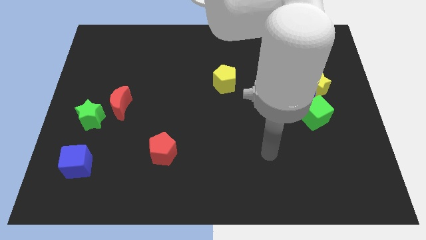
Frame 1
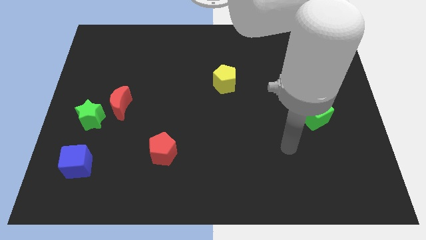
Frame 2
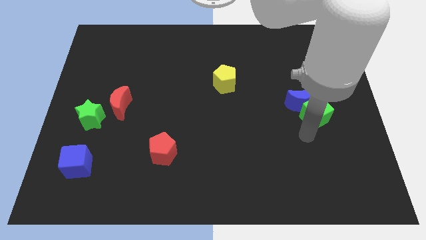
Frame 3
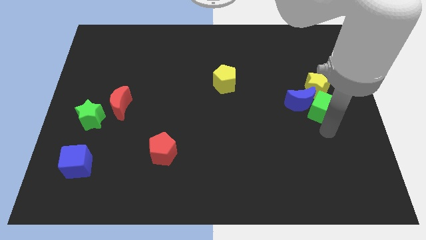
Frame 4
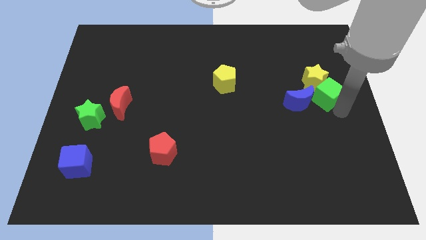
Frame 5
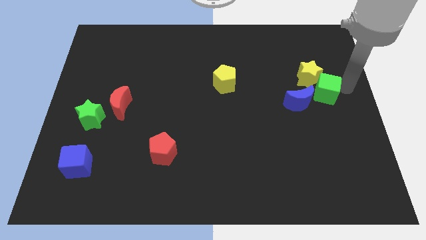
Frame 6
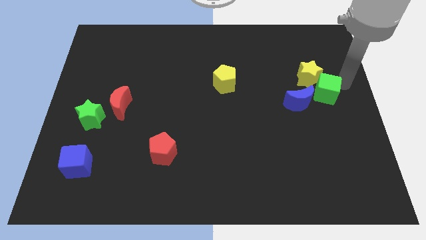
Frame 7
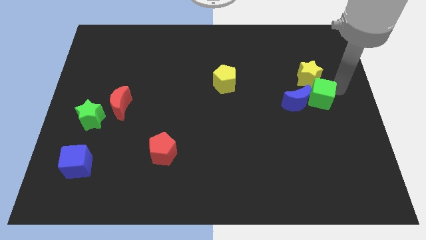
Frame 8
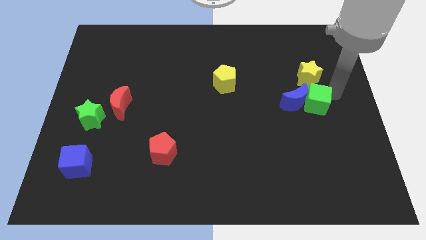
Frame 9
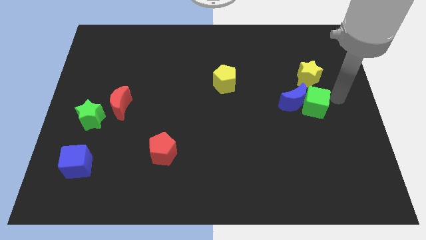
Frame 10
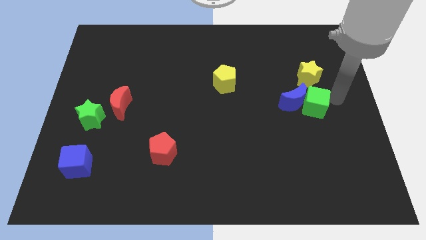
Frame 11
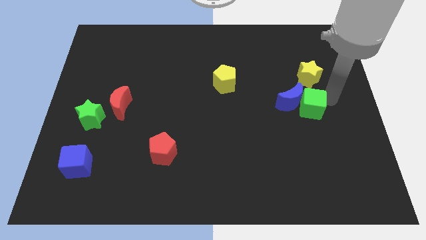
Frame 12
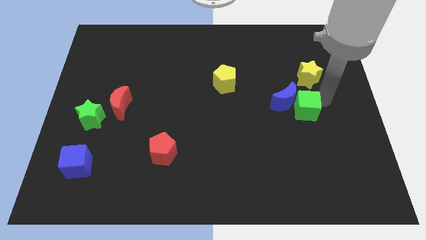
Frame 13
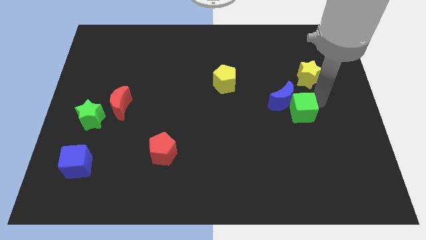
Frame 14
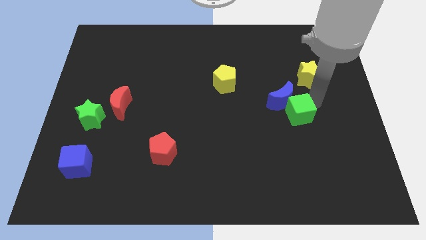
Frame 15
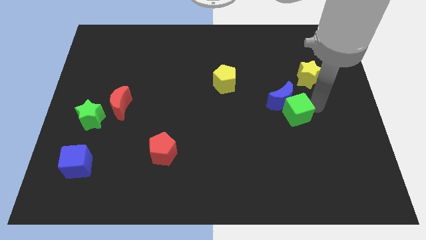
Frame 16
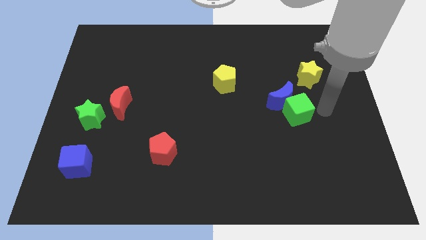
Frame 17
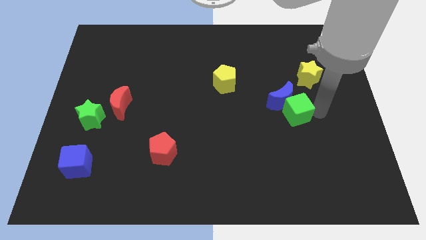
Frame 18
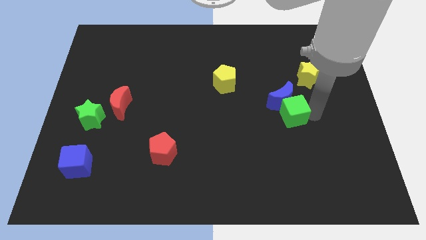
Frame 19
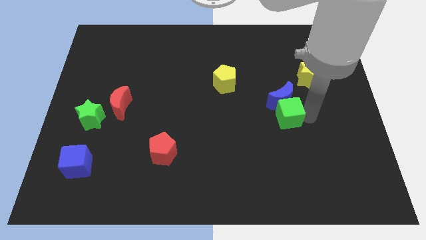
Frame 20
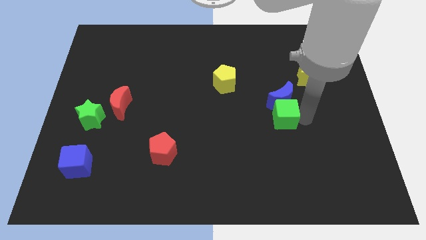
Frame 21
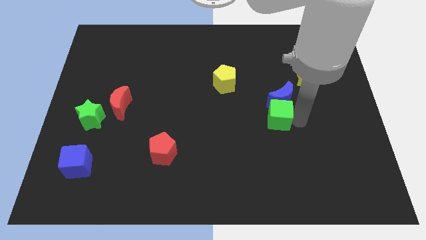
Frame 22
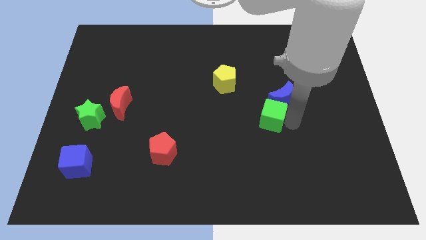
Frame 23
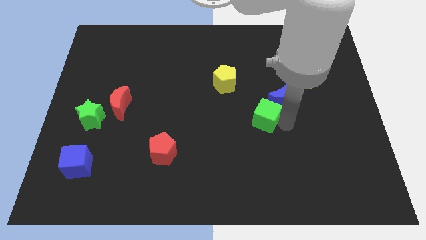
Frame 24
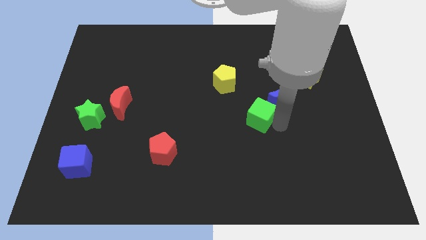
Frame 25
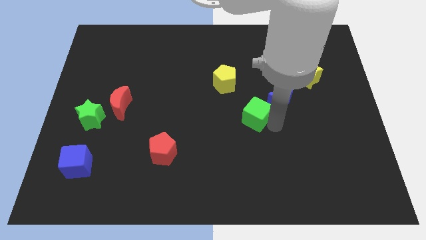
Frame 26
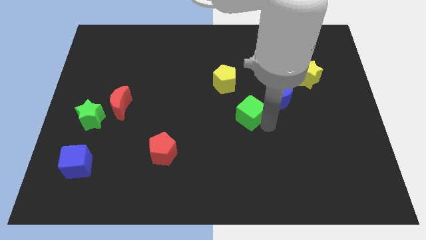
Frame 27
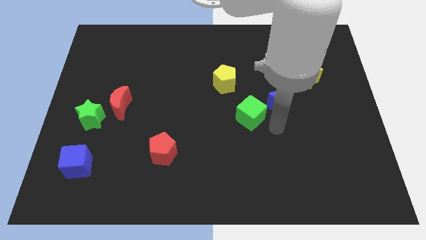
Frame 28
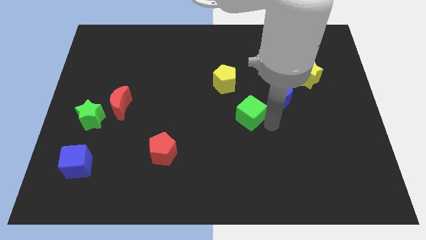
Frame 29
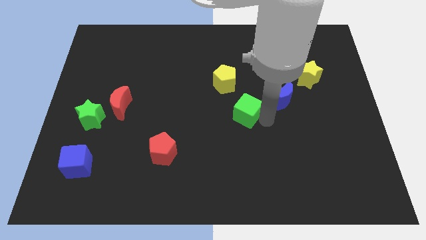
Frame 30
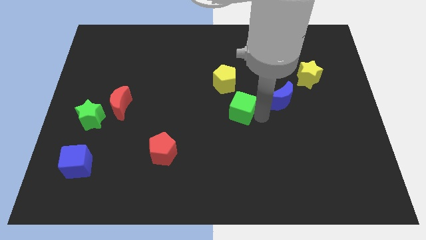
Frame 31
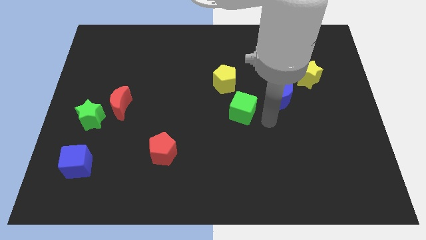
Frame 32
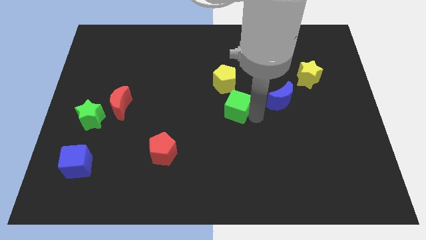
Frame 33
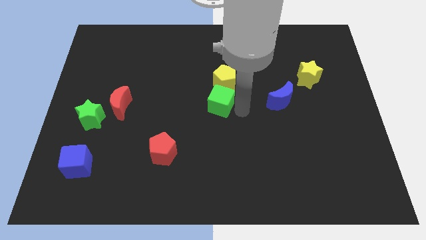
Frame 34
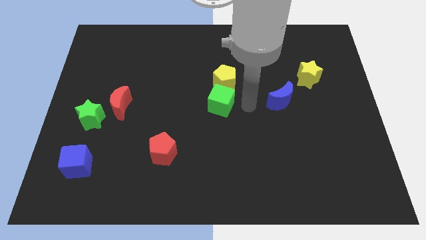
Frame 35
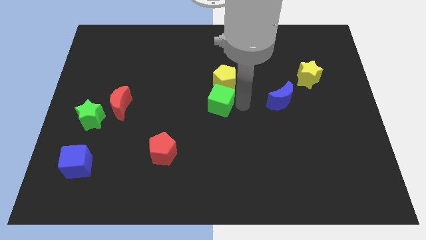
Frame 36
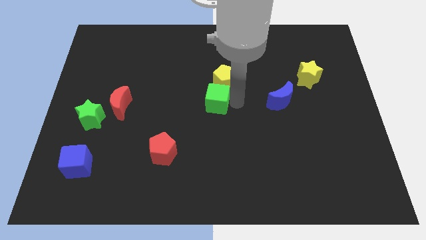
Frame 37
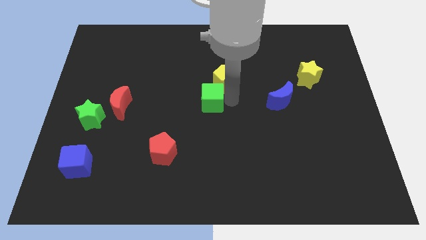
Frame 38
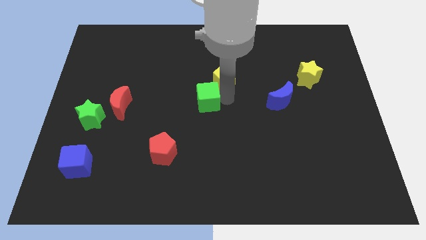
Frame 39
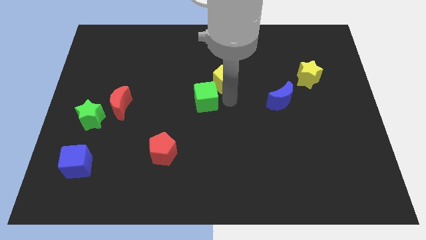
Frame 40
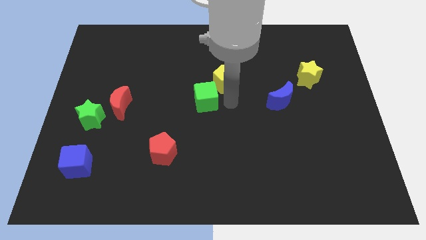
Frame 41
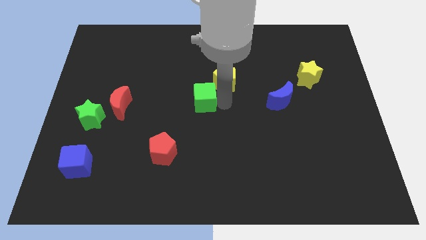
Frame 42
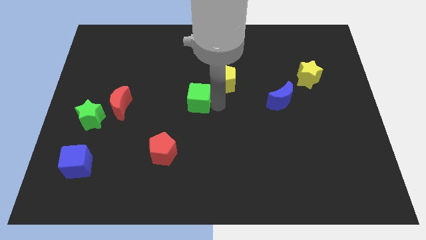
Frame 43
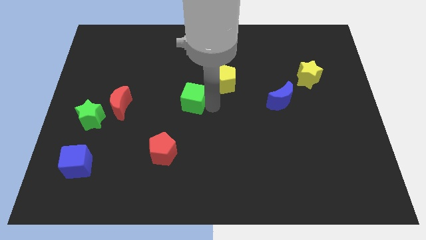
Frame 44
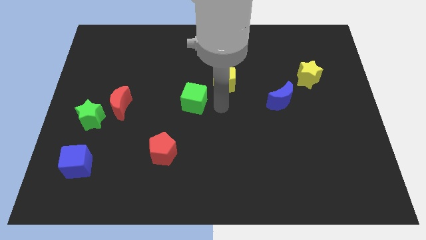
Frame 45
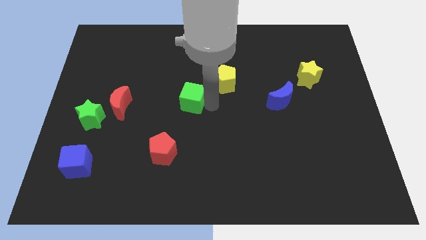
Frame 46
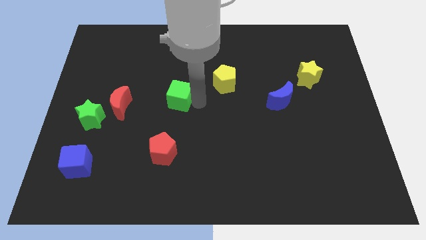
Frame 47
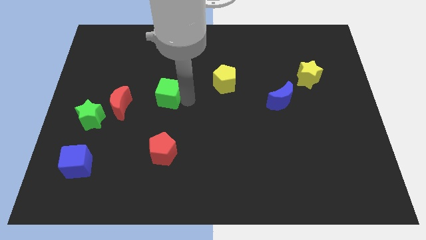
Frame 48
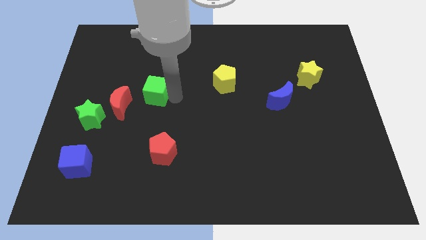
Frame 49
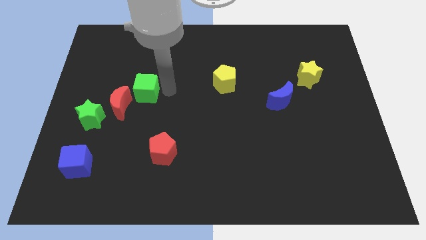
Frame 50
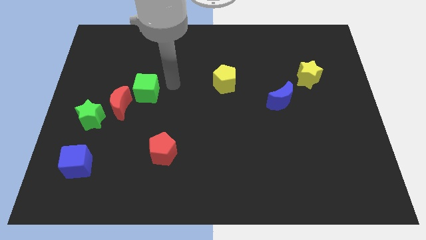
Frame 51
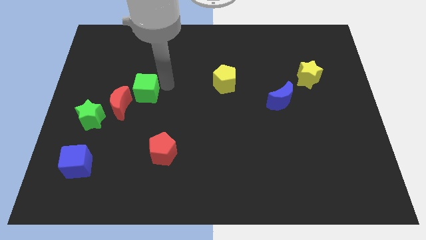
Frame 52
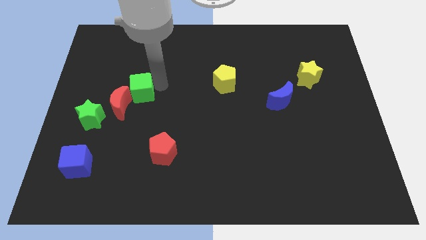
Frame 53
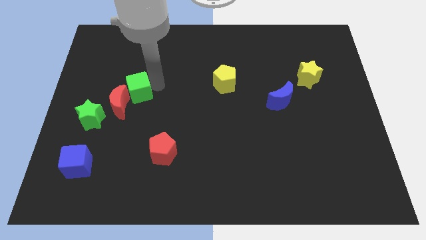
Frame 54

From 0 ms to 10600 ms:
put the green cube to the top right of the green star

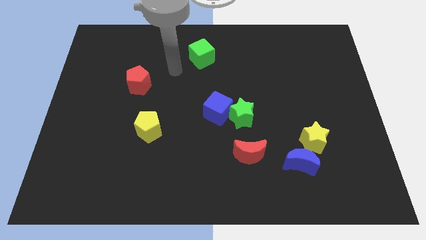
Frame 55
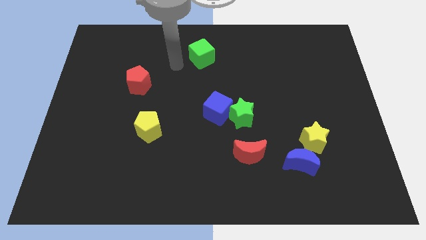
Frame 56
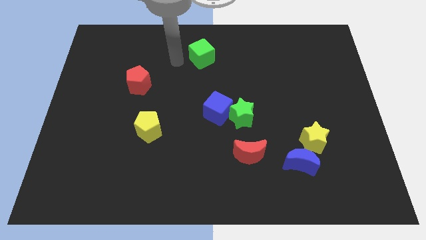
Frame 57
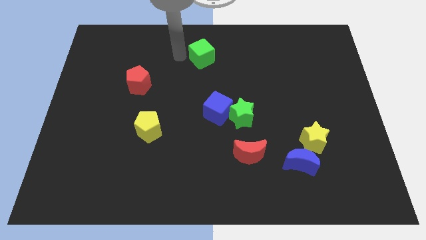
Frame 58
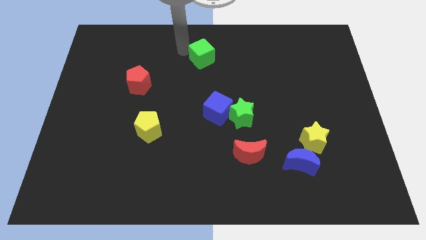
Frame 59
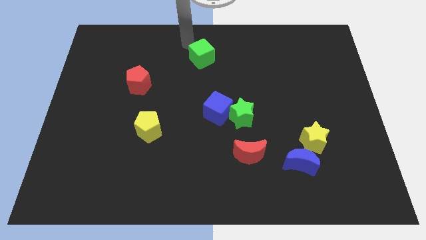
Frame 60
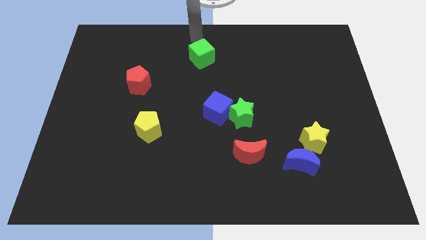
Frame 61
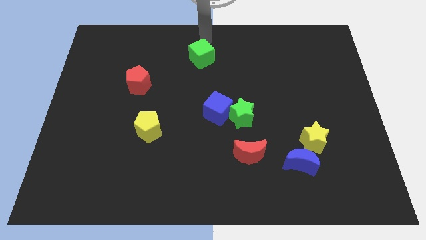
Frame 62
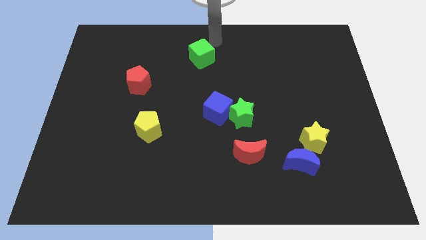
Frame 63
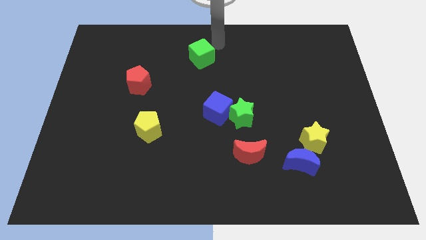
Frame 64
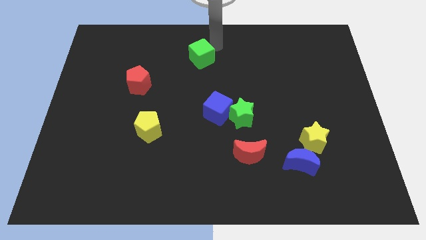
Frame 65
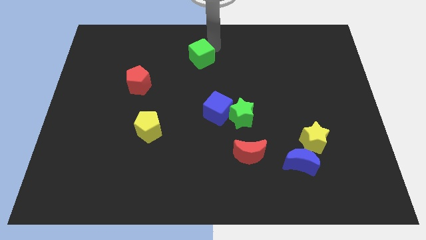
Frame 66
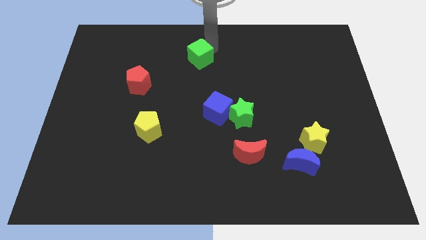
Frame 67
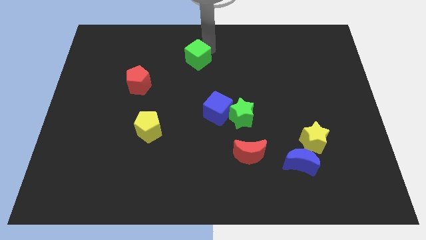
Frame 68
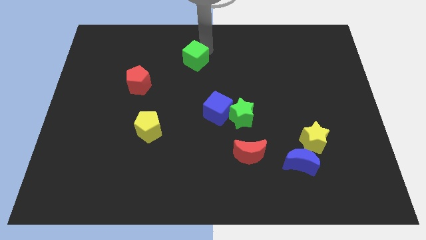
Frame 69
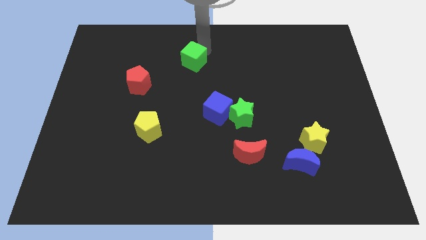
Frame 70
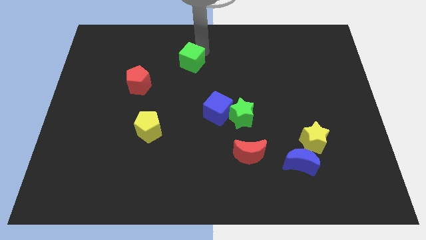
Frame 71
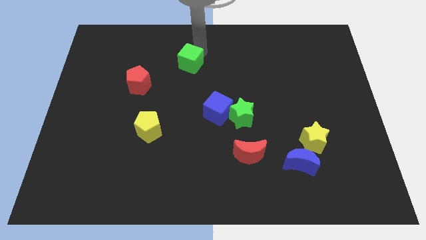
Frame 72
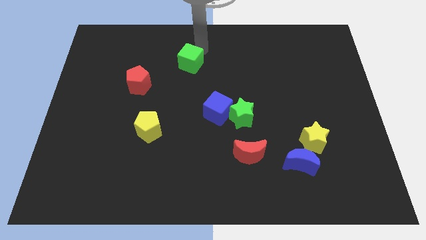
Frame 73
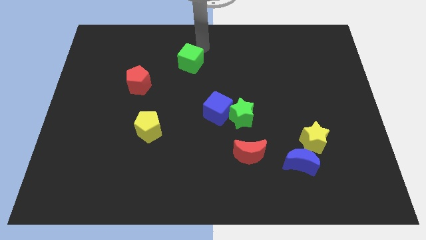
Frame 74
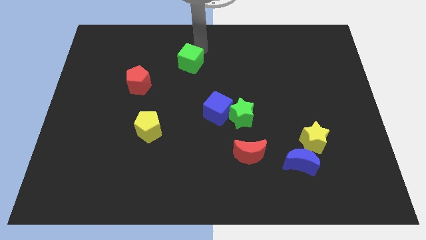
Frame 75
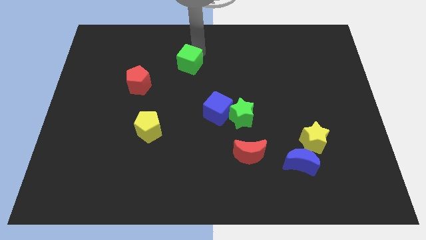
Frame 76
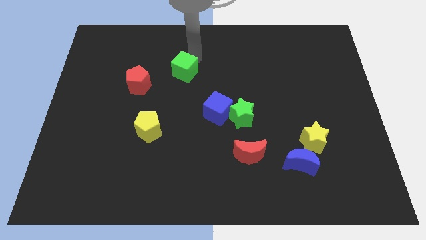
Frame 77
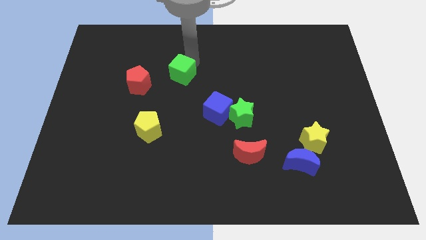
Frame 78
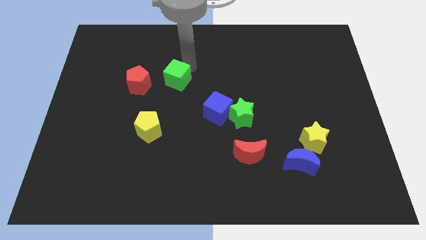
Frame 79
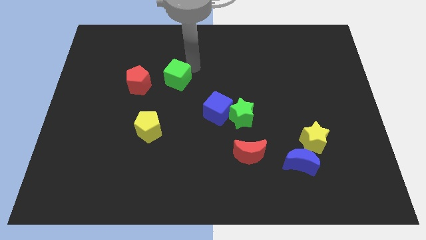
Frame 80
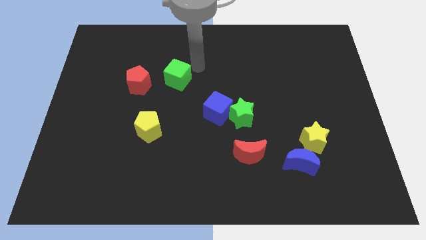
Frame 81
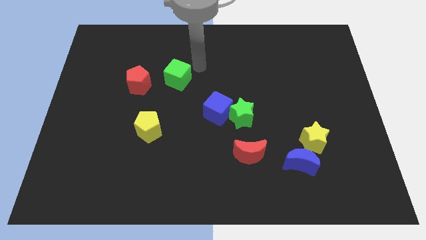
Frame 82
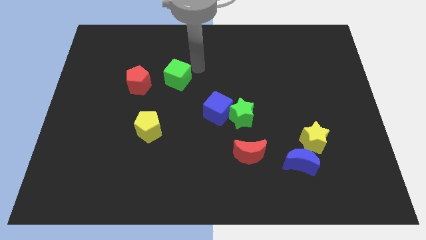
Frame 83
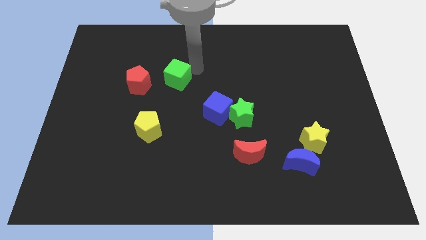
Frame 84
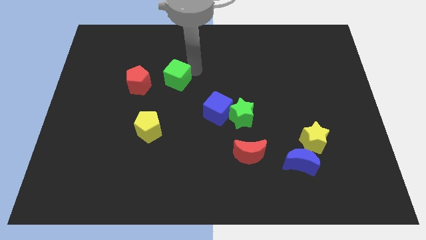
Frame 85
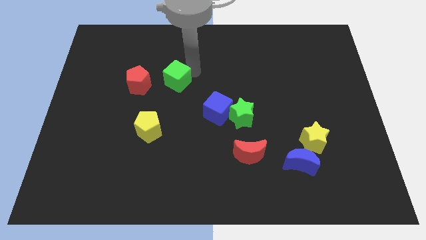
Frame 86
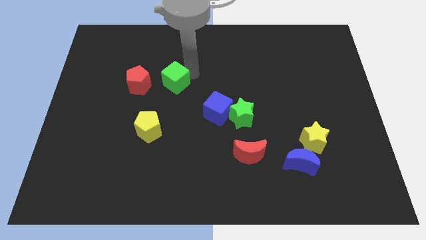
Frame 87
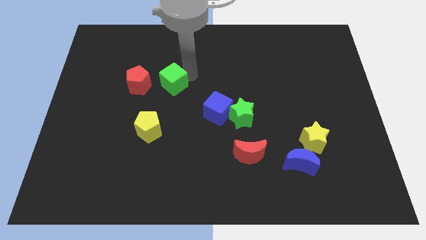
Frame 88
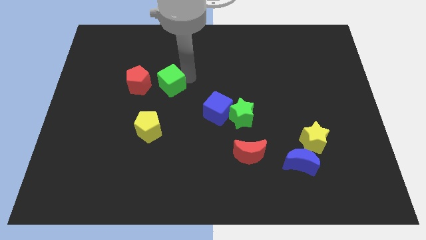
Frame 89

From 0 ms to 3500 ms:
put the green cube above the yellow pentagon
